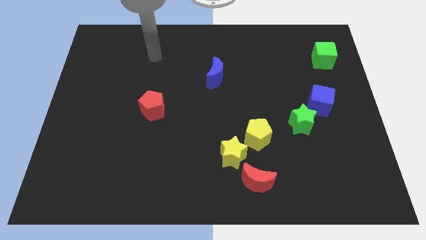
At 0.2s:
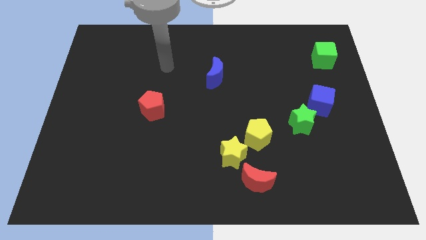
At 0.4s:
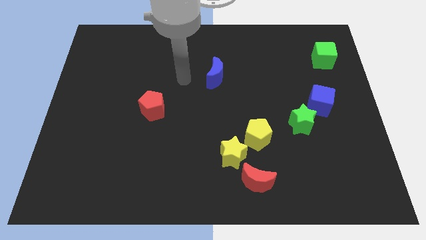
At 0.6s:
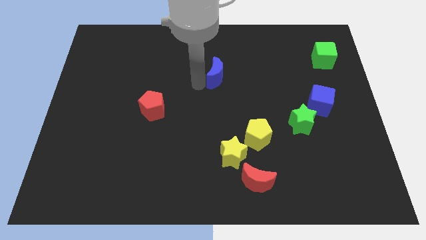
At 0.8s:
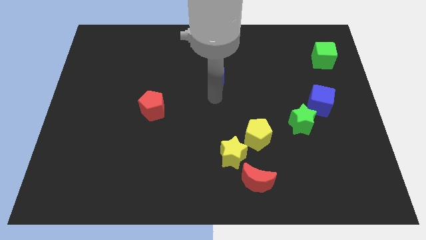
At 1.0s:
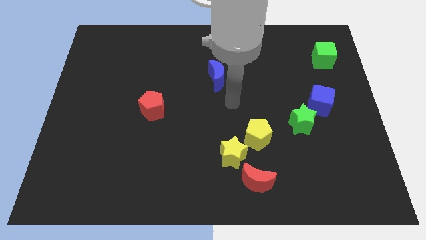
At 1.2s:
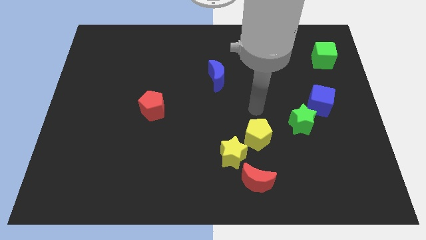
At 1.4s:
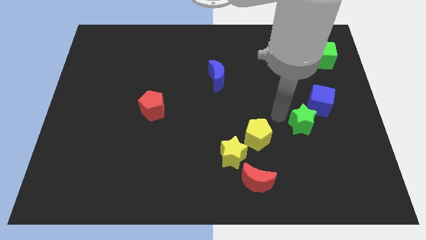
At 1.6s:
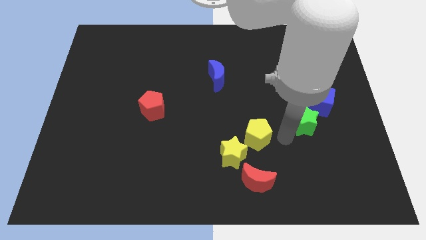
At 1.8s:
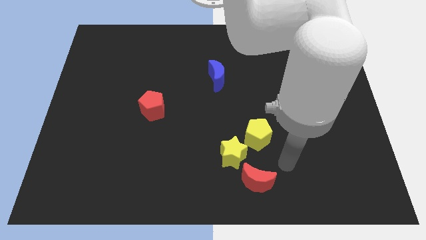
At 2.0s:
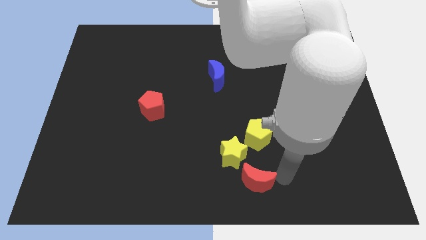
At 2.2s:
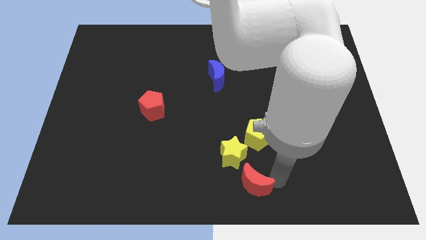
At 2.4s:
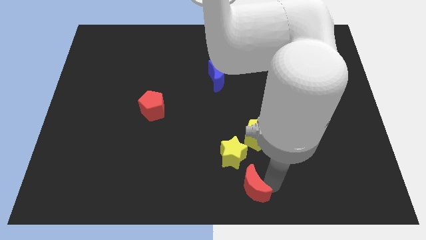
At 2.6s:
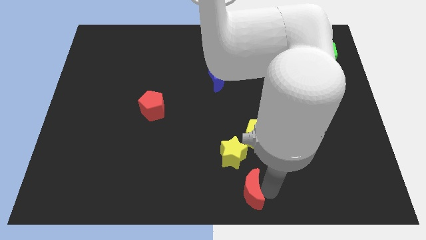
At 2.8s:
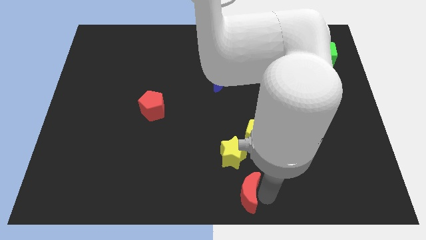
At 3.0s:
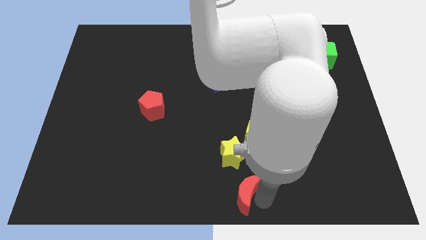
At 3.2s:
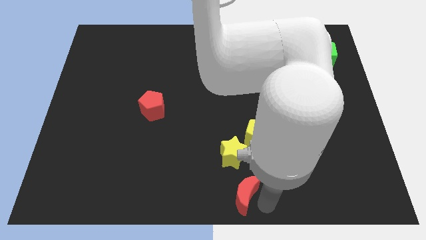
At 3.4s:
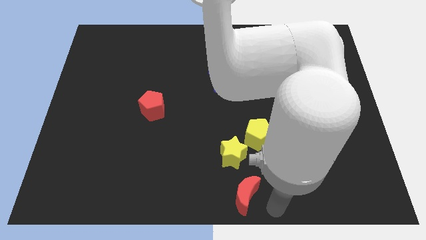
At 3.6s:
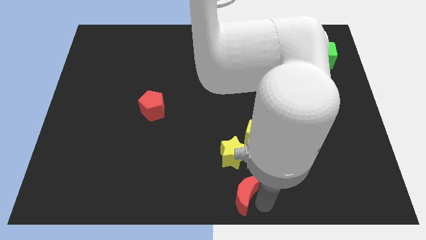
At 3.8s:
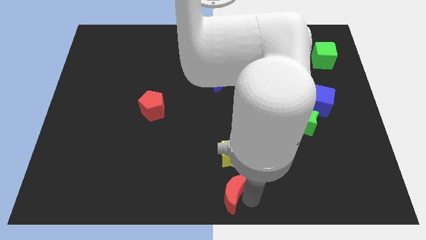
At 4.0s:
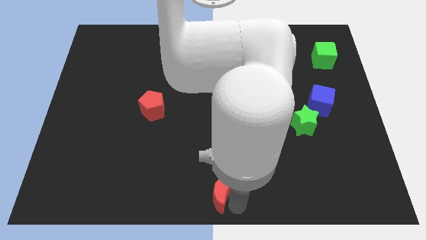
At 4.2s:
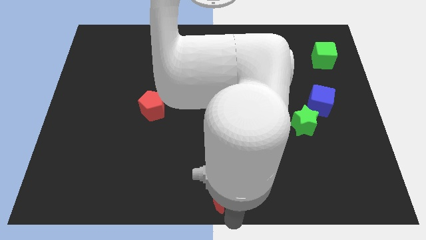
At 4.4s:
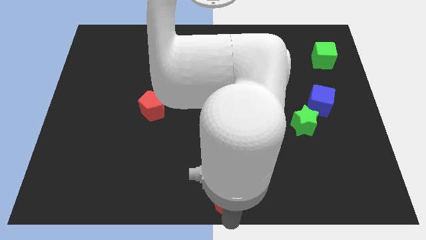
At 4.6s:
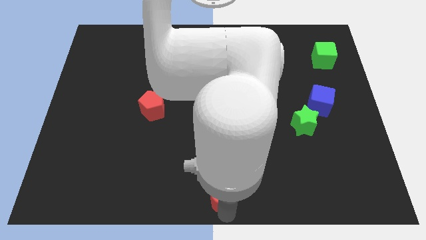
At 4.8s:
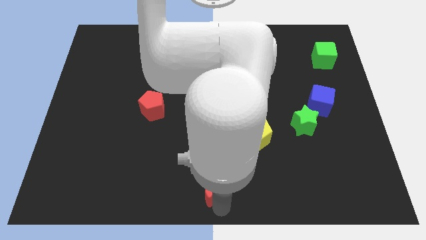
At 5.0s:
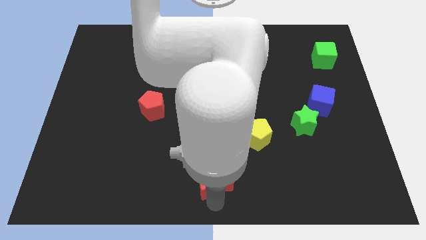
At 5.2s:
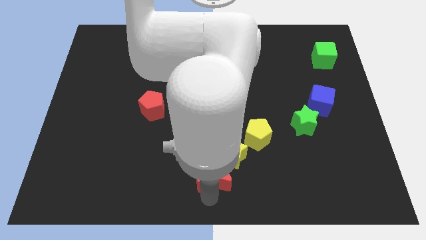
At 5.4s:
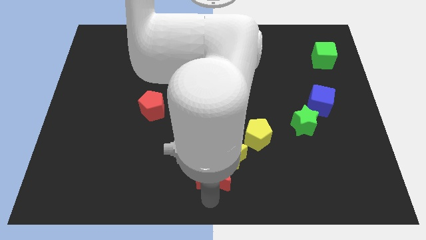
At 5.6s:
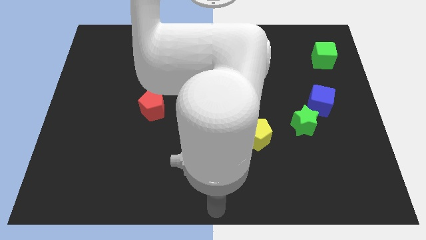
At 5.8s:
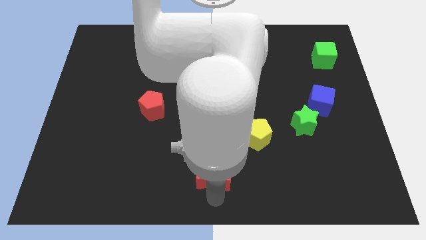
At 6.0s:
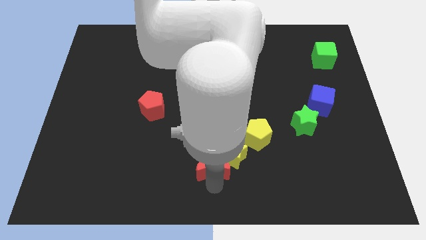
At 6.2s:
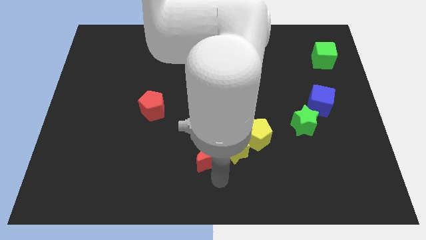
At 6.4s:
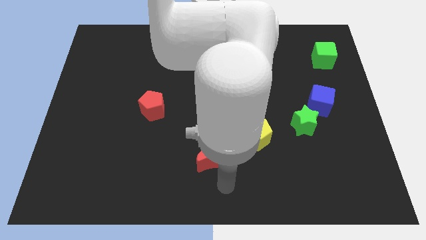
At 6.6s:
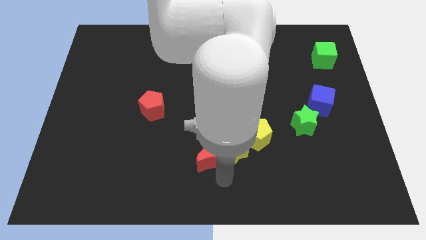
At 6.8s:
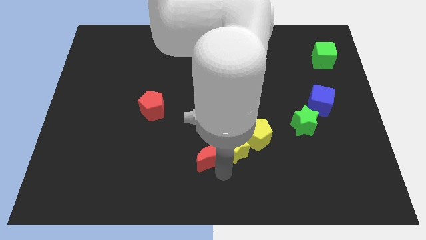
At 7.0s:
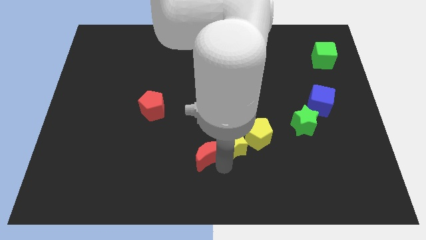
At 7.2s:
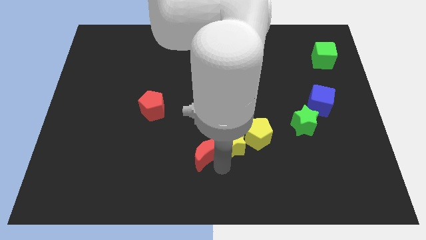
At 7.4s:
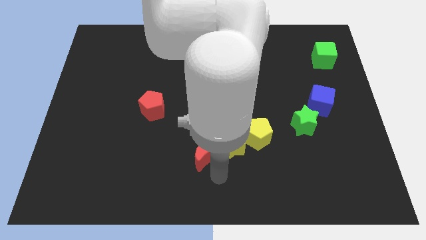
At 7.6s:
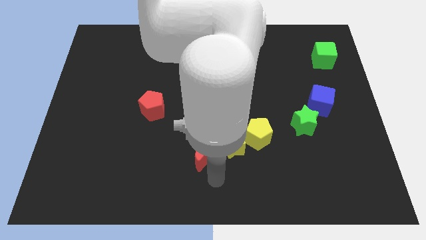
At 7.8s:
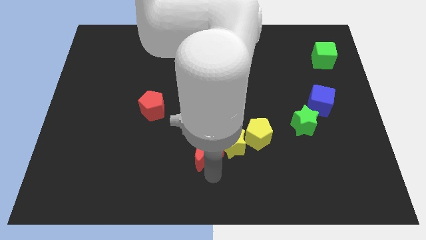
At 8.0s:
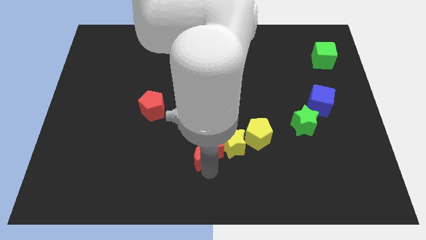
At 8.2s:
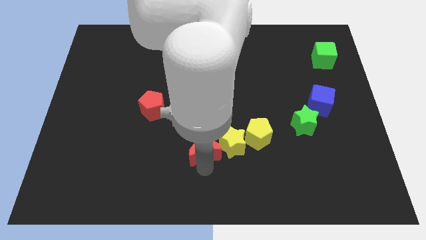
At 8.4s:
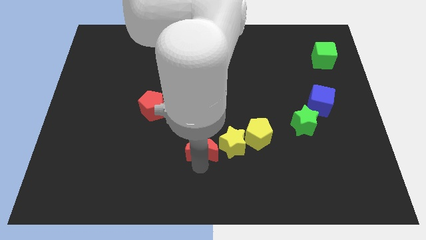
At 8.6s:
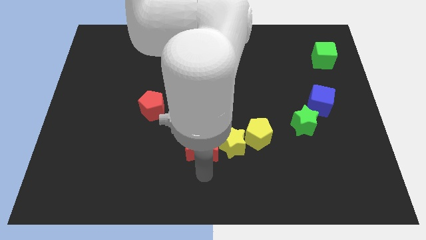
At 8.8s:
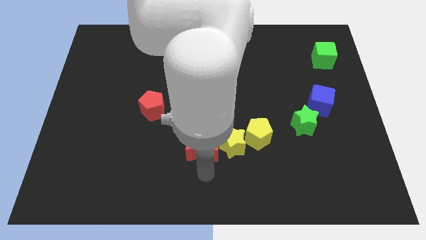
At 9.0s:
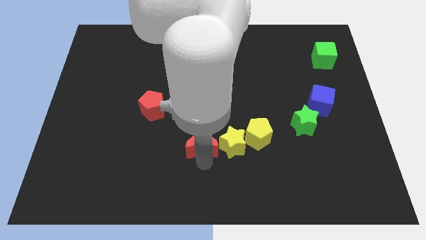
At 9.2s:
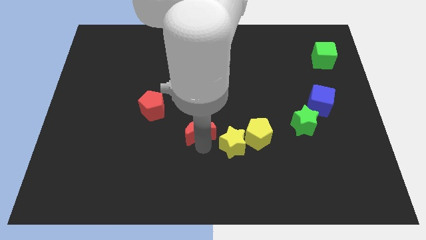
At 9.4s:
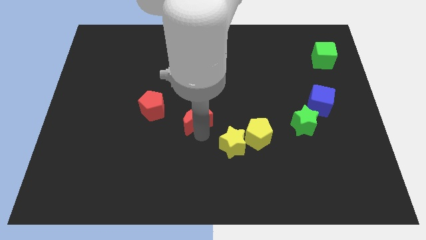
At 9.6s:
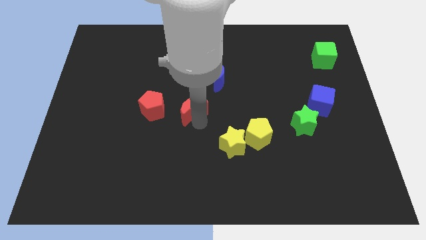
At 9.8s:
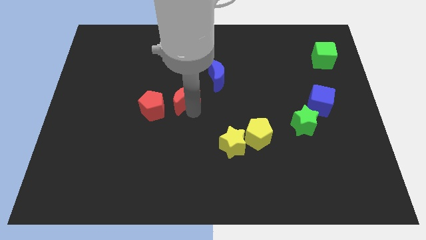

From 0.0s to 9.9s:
push the red moon diagonally up and to the right of the red pentagon

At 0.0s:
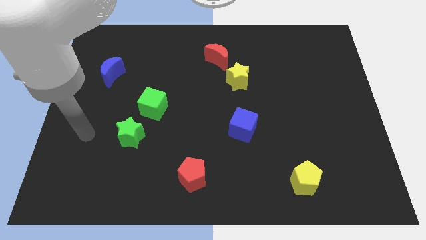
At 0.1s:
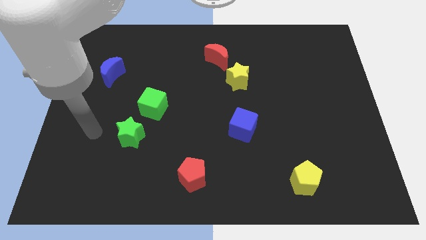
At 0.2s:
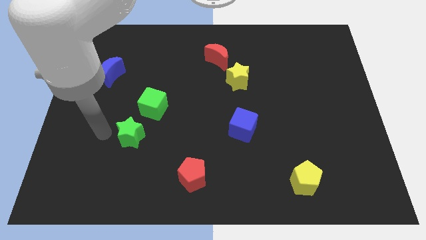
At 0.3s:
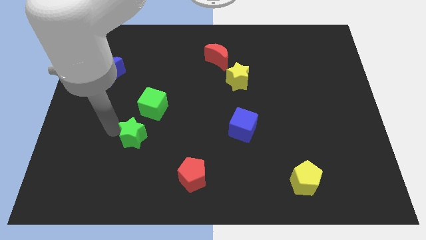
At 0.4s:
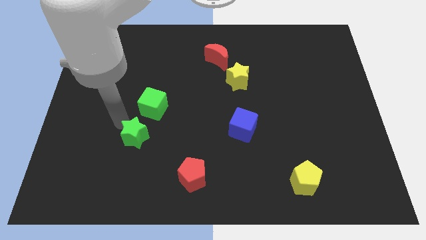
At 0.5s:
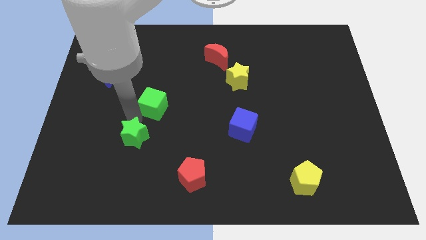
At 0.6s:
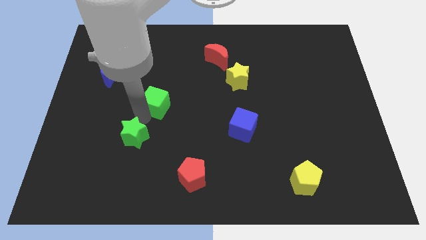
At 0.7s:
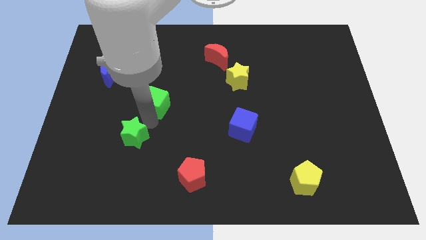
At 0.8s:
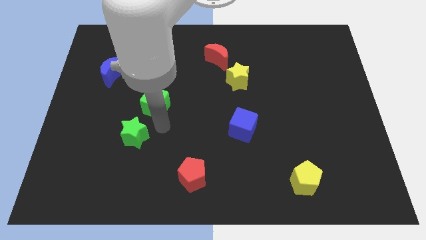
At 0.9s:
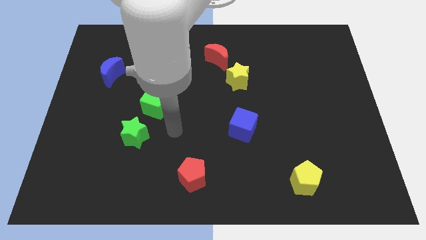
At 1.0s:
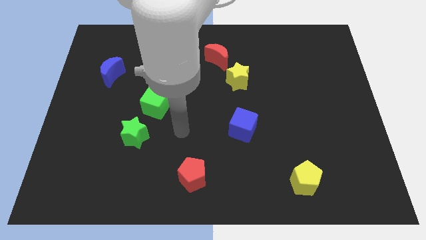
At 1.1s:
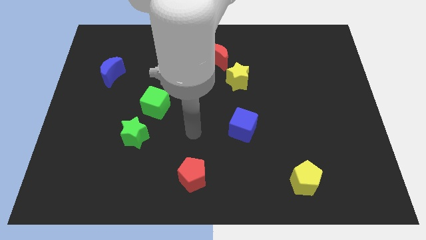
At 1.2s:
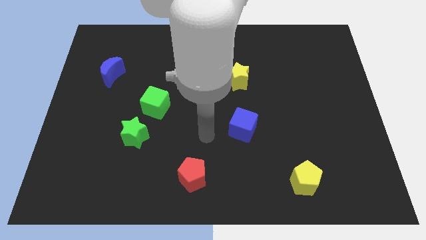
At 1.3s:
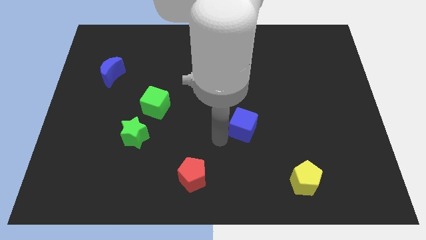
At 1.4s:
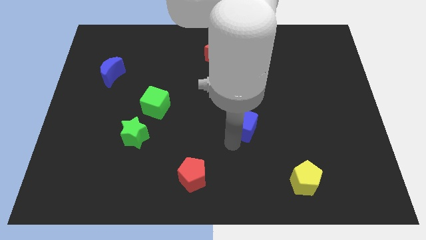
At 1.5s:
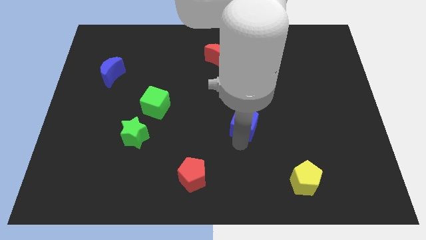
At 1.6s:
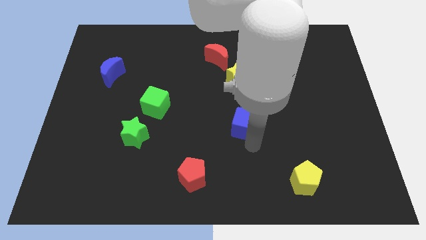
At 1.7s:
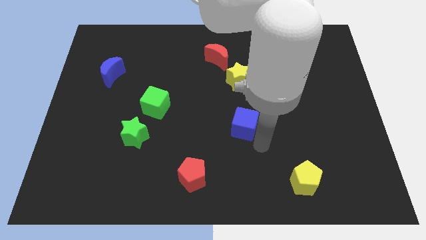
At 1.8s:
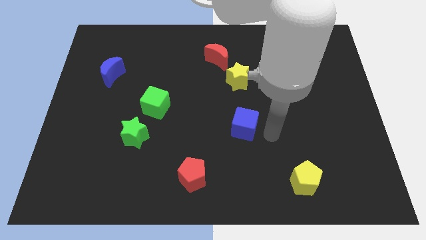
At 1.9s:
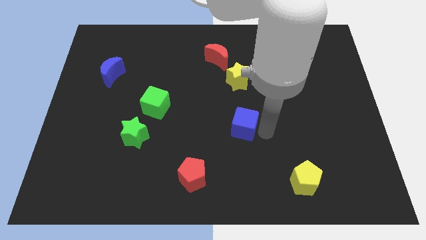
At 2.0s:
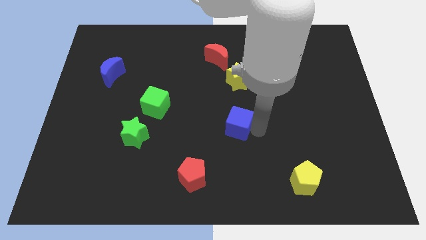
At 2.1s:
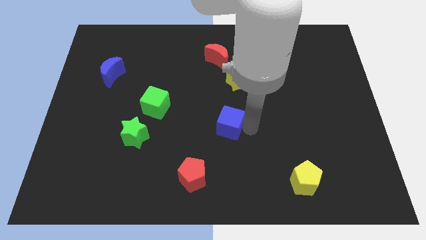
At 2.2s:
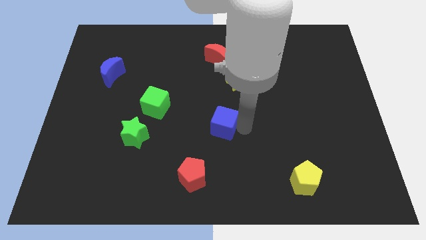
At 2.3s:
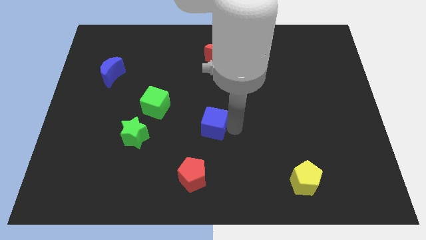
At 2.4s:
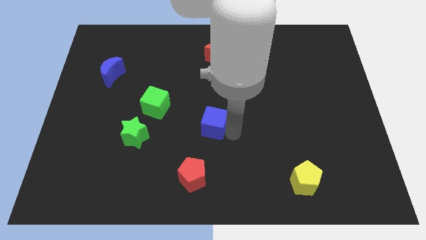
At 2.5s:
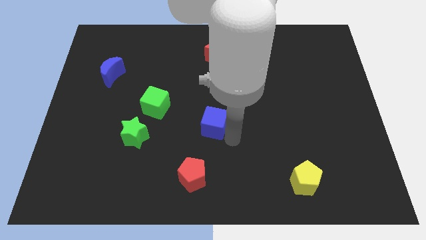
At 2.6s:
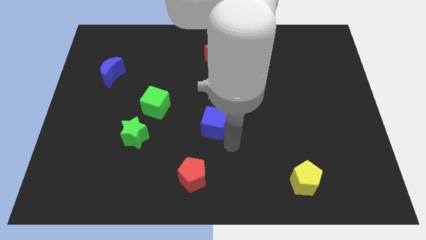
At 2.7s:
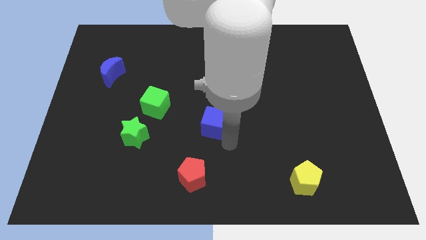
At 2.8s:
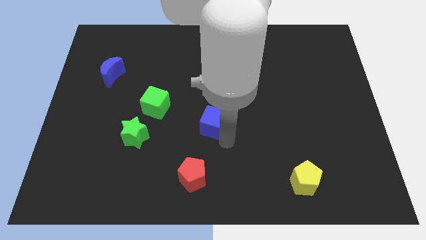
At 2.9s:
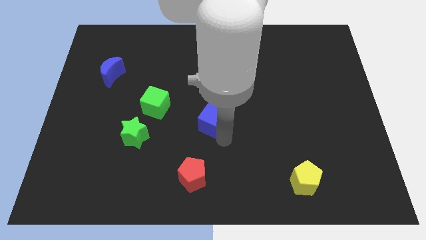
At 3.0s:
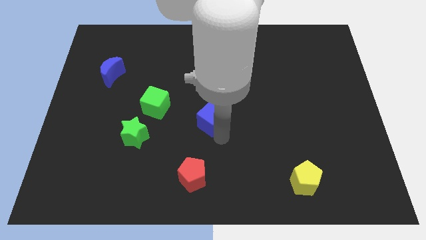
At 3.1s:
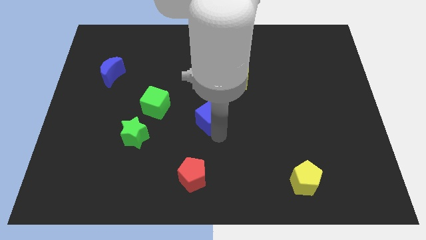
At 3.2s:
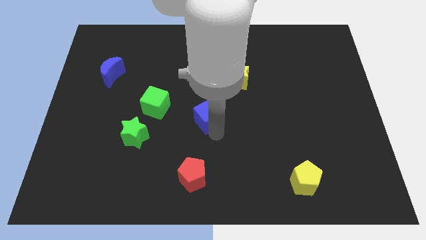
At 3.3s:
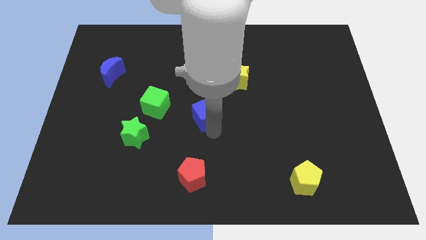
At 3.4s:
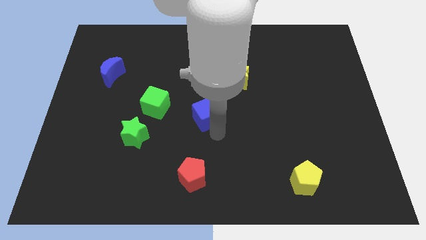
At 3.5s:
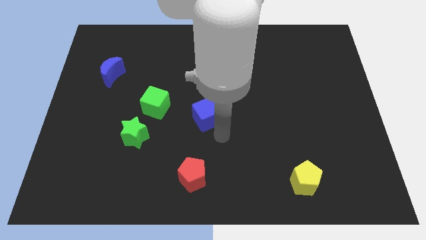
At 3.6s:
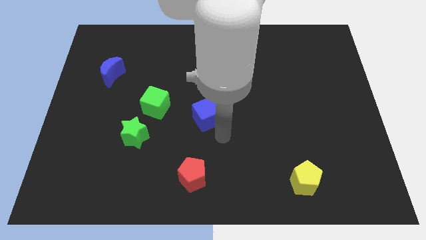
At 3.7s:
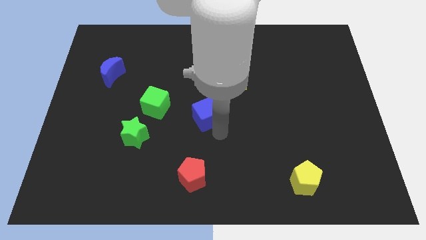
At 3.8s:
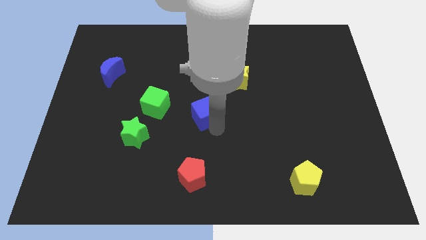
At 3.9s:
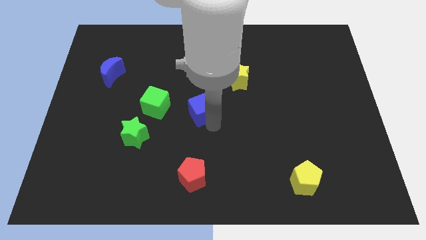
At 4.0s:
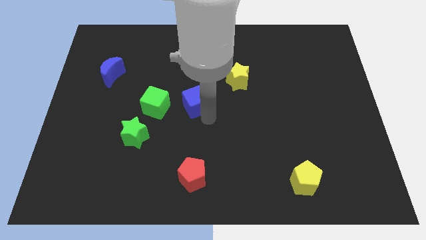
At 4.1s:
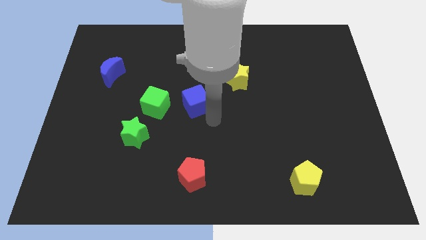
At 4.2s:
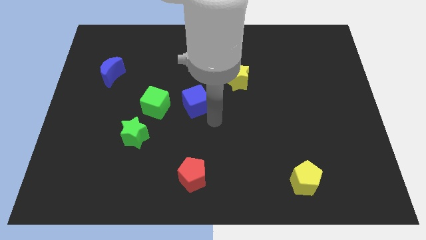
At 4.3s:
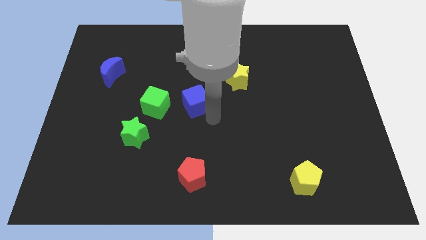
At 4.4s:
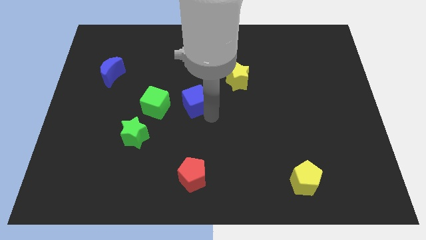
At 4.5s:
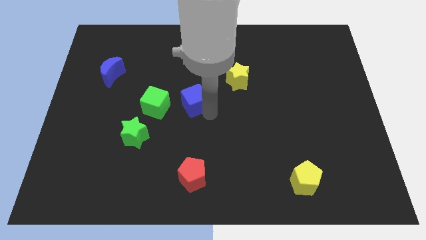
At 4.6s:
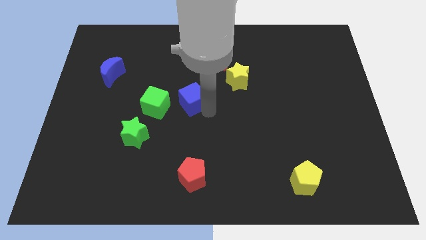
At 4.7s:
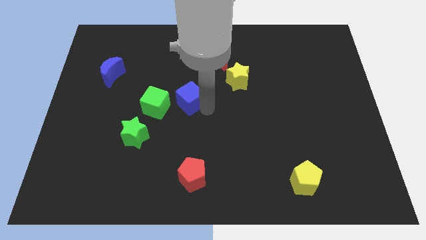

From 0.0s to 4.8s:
move the blue cube to the top right of the green cube
